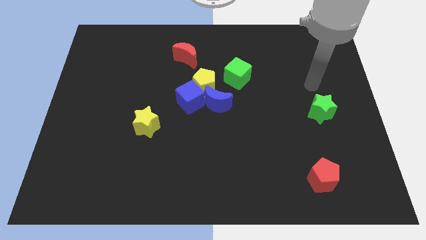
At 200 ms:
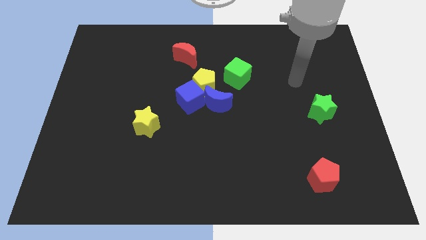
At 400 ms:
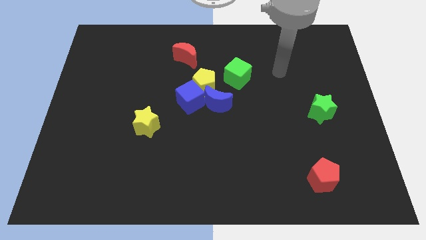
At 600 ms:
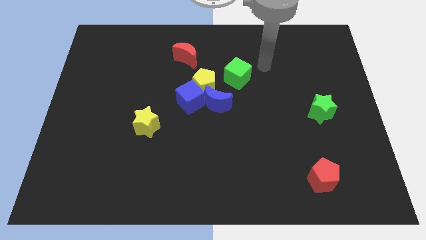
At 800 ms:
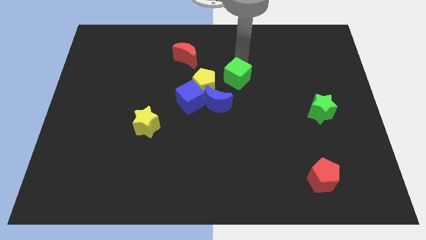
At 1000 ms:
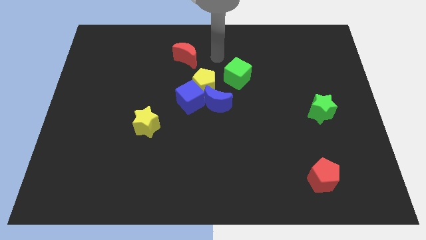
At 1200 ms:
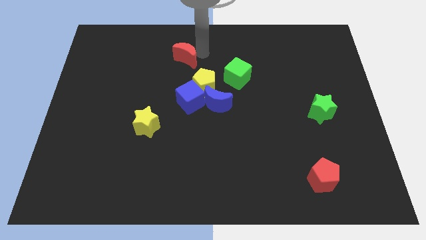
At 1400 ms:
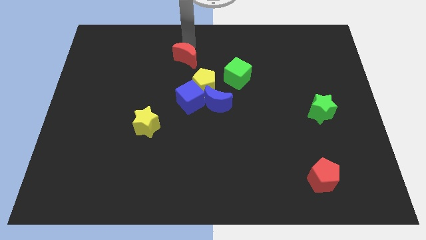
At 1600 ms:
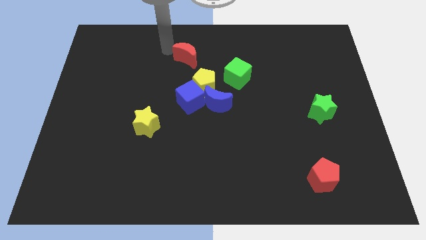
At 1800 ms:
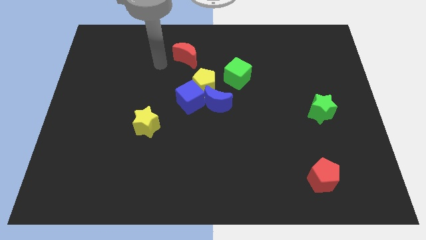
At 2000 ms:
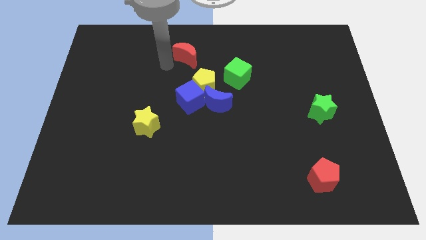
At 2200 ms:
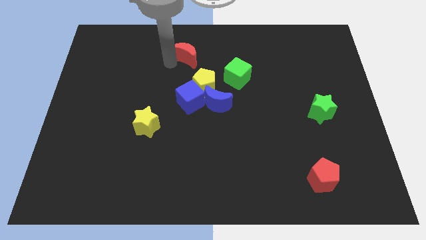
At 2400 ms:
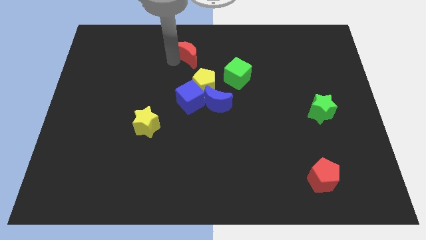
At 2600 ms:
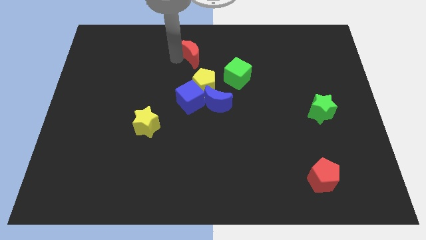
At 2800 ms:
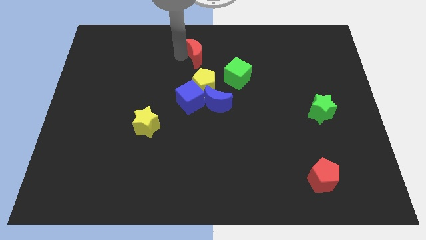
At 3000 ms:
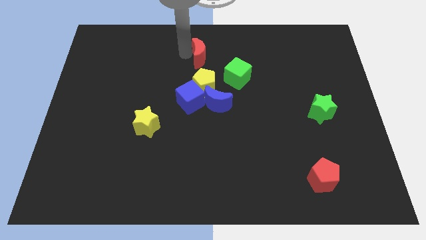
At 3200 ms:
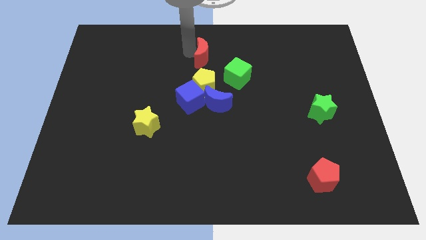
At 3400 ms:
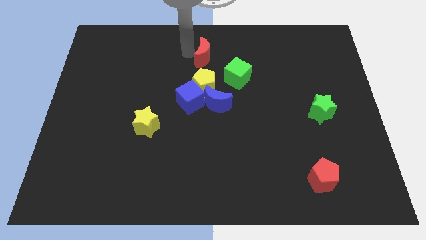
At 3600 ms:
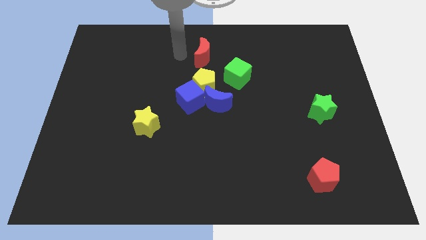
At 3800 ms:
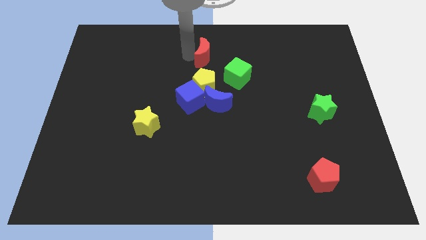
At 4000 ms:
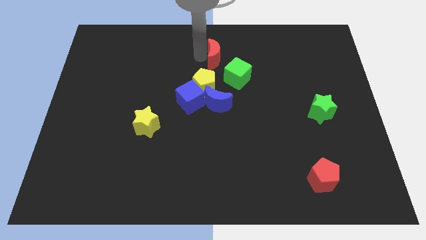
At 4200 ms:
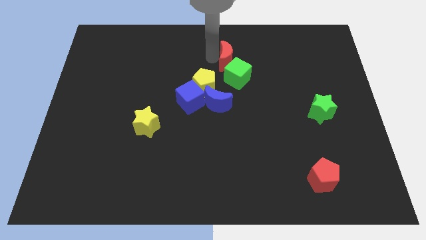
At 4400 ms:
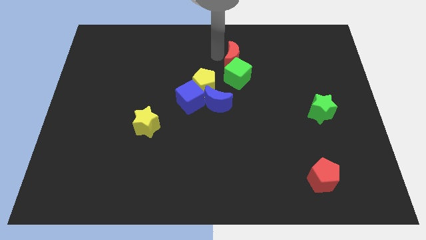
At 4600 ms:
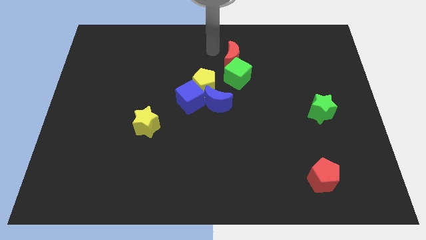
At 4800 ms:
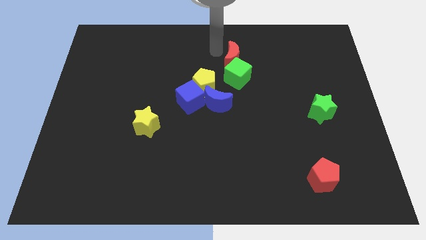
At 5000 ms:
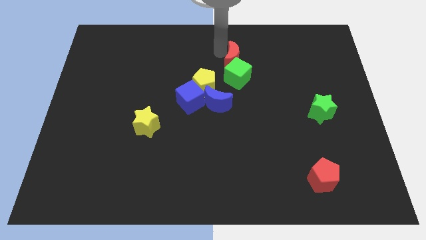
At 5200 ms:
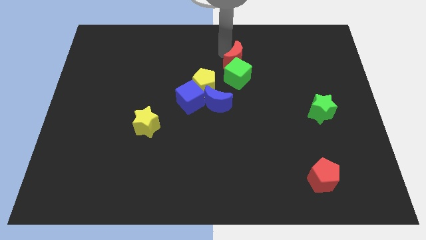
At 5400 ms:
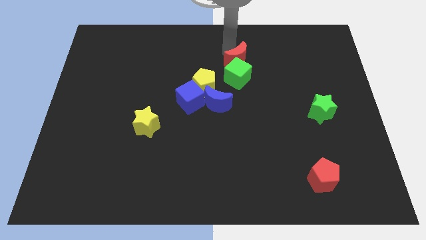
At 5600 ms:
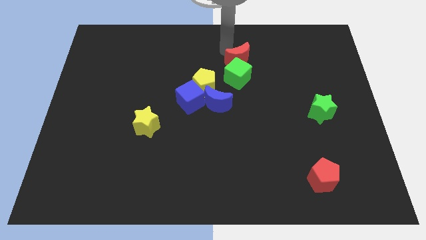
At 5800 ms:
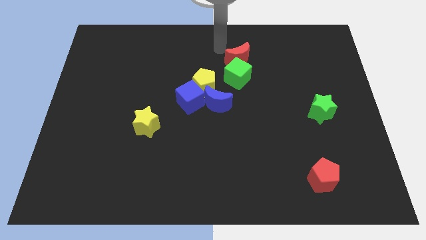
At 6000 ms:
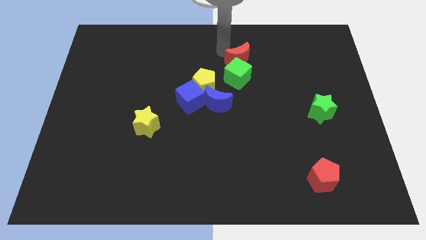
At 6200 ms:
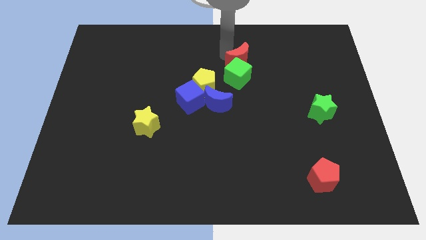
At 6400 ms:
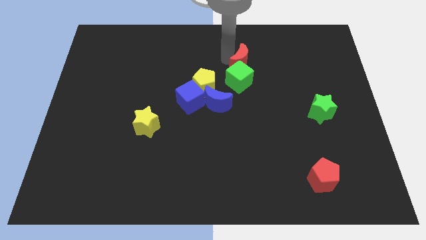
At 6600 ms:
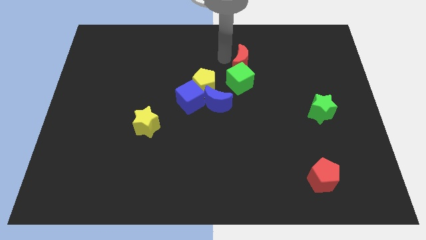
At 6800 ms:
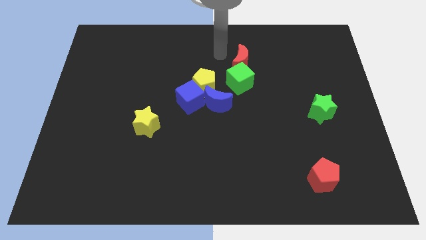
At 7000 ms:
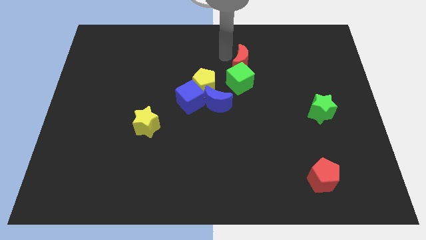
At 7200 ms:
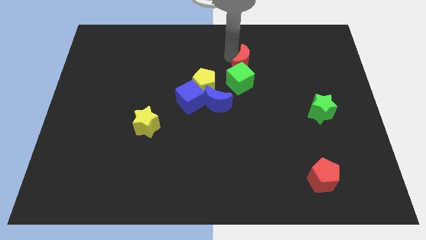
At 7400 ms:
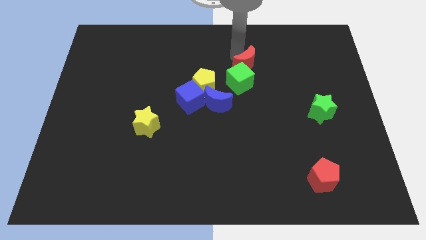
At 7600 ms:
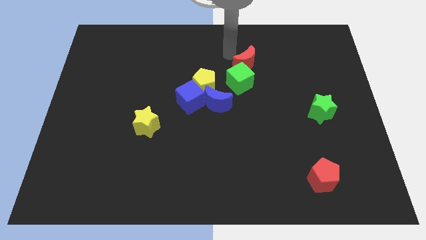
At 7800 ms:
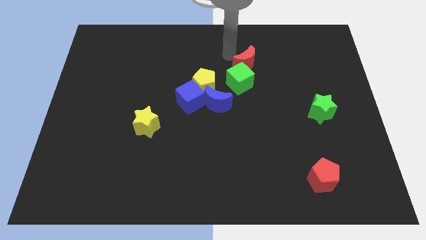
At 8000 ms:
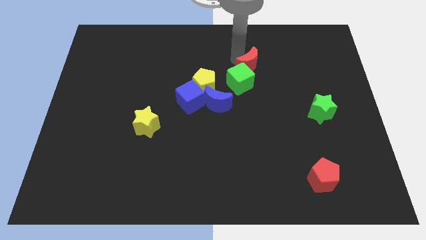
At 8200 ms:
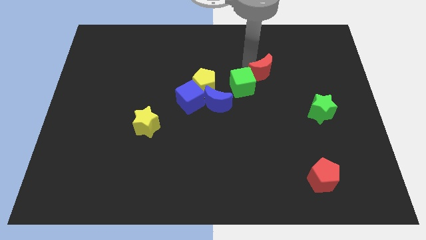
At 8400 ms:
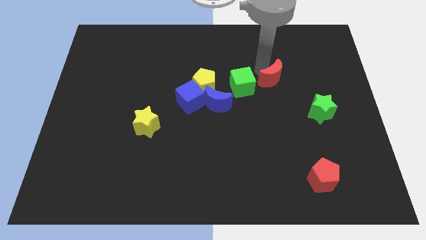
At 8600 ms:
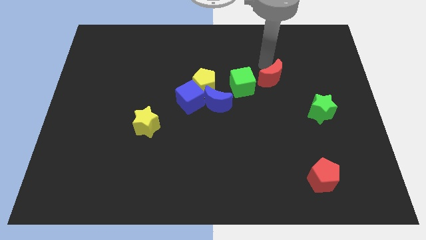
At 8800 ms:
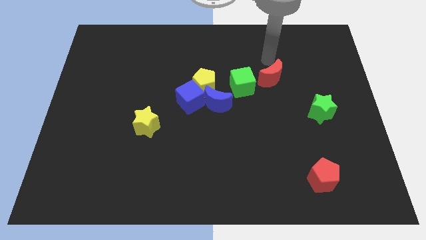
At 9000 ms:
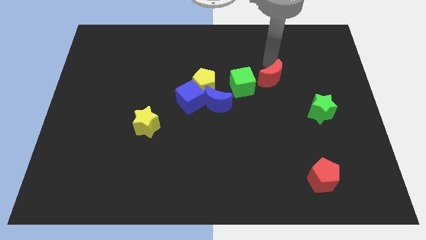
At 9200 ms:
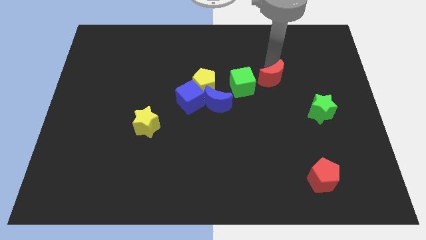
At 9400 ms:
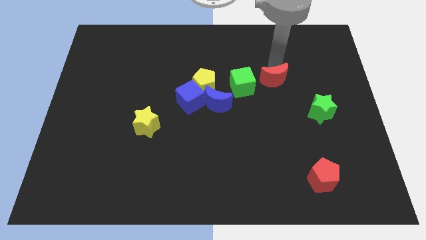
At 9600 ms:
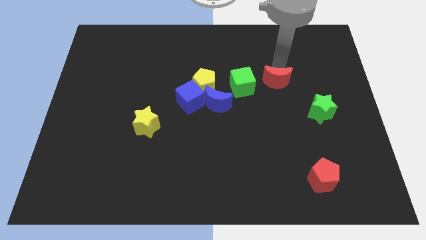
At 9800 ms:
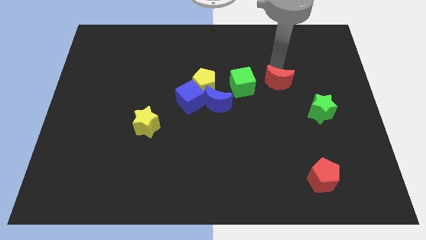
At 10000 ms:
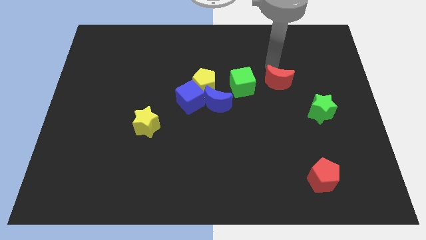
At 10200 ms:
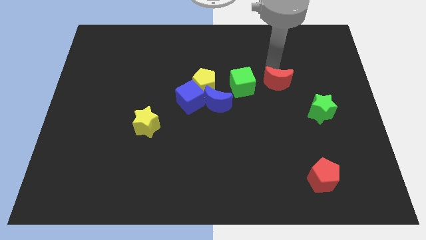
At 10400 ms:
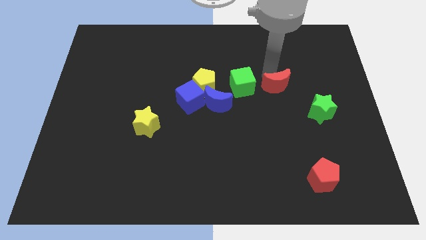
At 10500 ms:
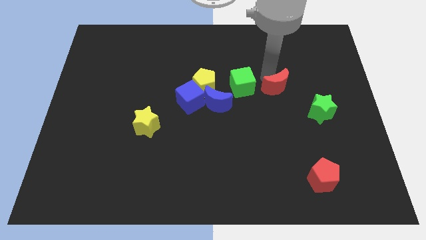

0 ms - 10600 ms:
slide the red moon diagonally down and to the right

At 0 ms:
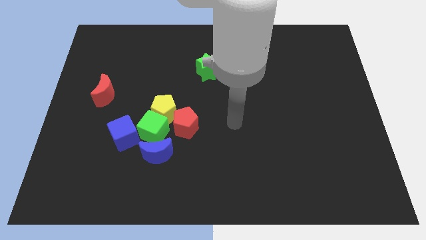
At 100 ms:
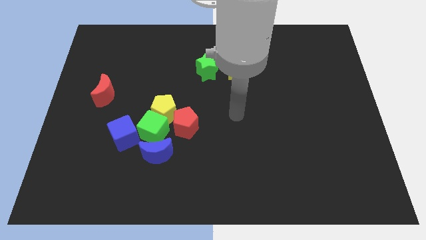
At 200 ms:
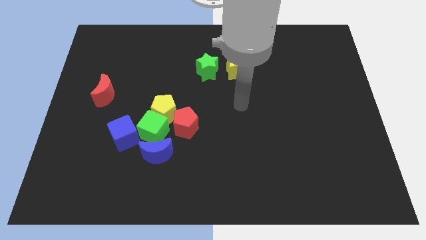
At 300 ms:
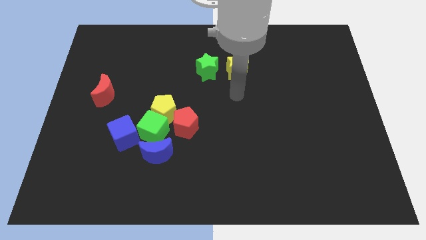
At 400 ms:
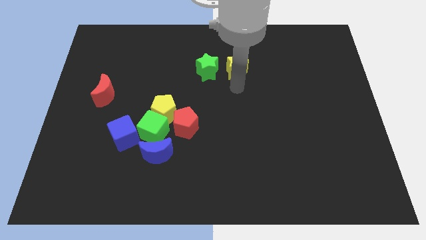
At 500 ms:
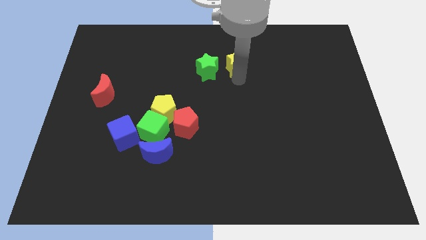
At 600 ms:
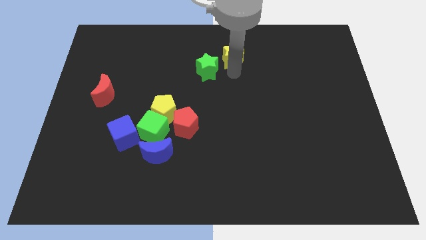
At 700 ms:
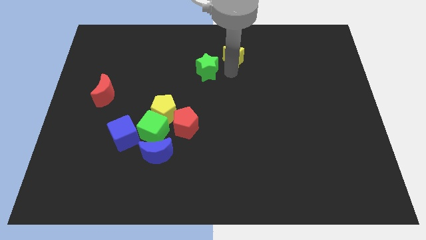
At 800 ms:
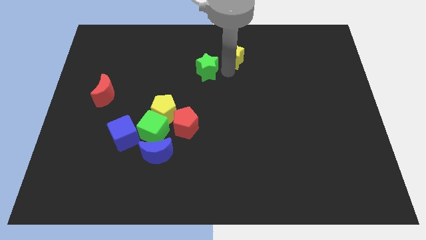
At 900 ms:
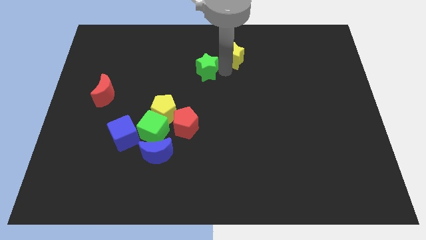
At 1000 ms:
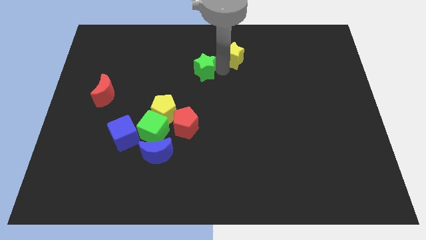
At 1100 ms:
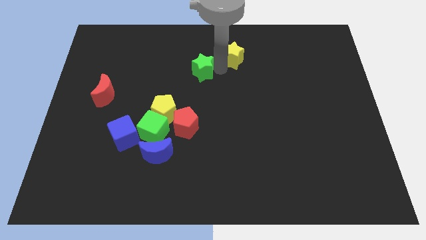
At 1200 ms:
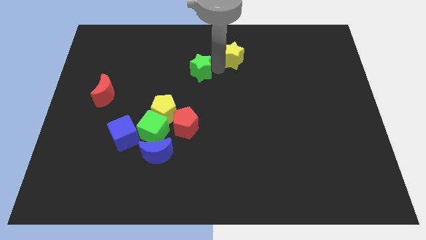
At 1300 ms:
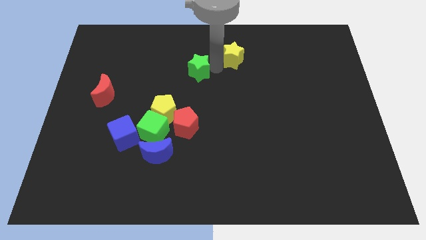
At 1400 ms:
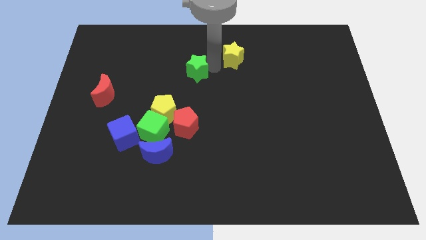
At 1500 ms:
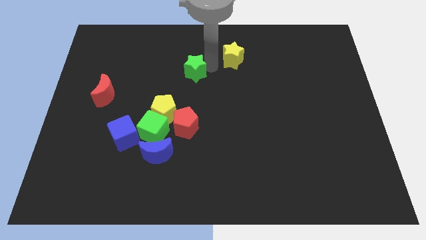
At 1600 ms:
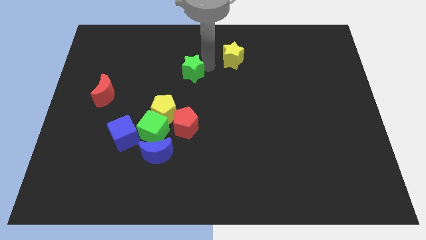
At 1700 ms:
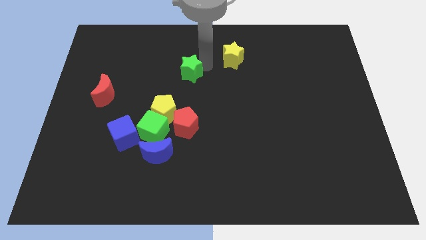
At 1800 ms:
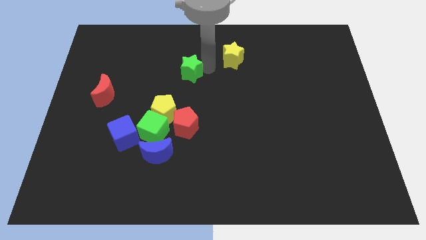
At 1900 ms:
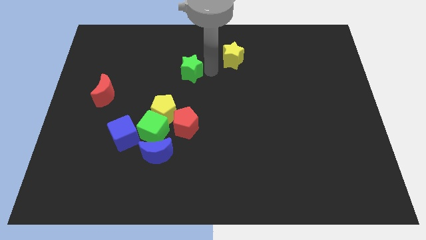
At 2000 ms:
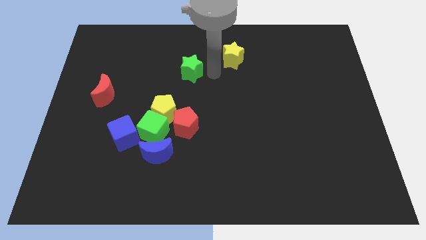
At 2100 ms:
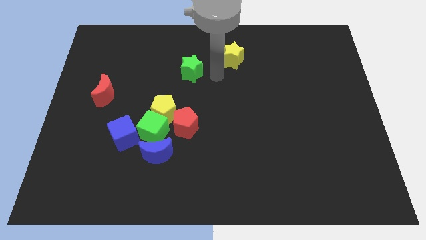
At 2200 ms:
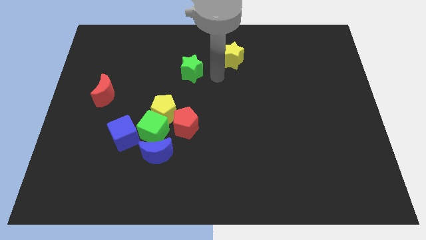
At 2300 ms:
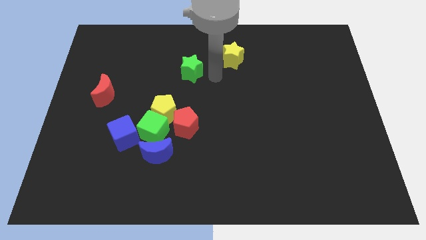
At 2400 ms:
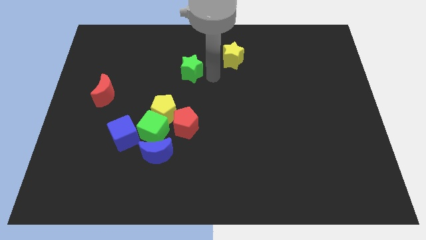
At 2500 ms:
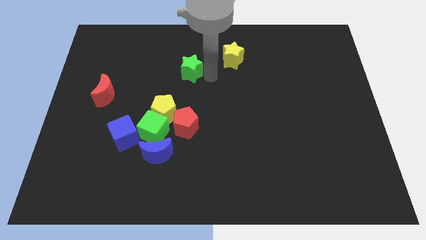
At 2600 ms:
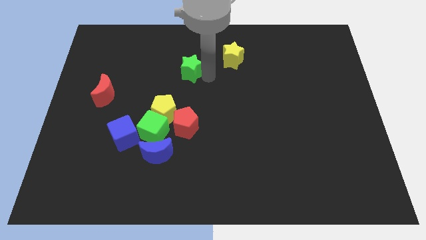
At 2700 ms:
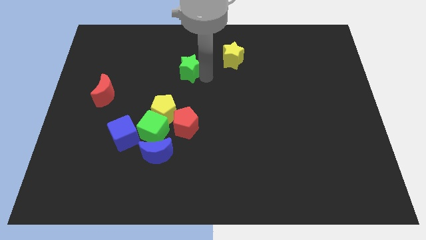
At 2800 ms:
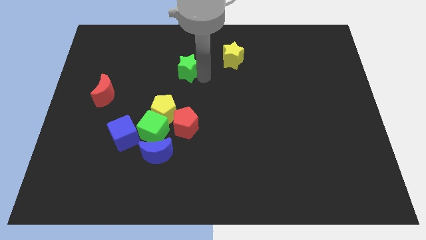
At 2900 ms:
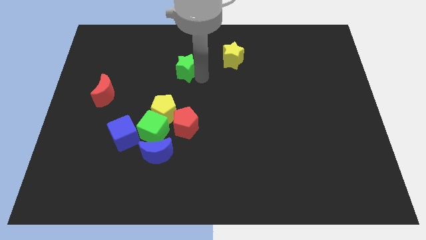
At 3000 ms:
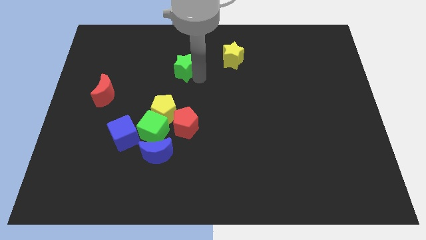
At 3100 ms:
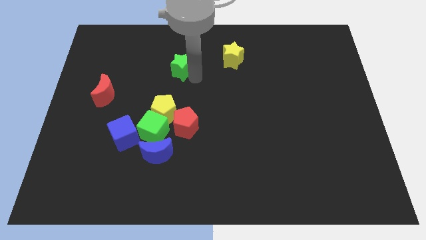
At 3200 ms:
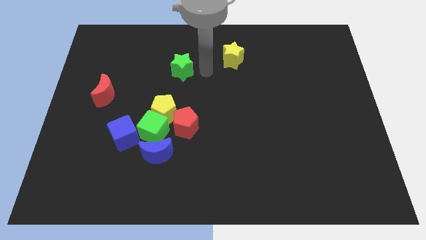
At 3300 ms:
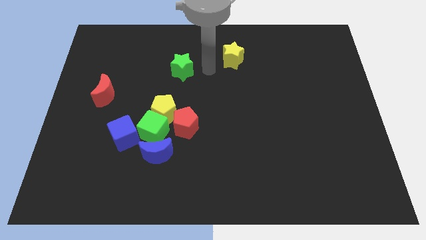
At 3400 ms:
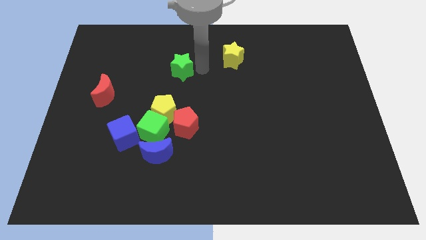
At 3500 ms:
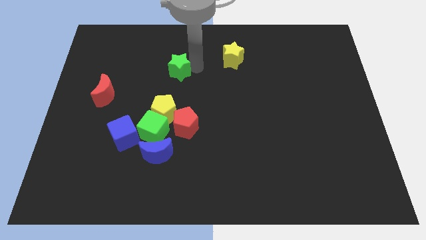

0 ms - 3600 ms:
push the green star a bit to the left
